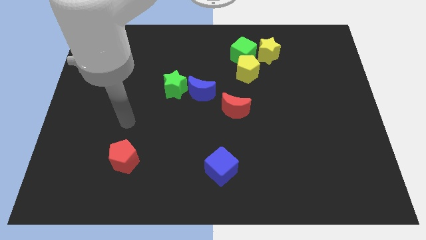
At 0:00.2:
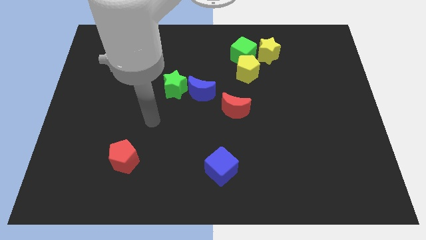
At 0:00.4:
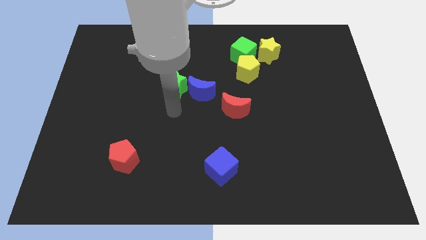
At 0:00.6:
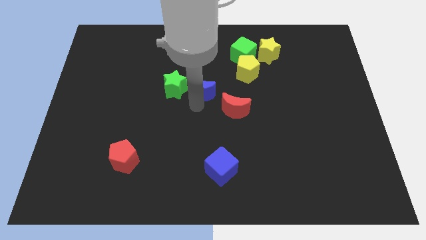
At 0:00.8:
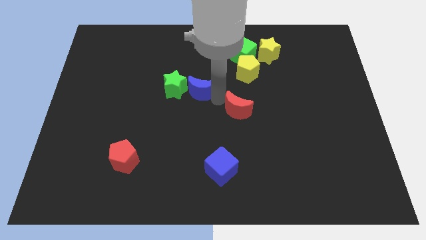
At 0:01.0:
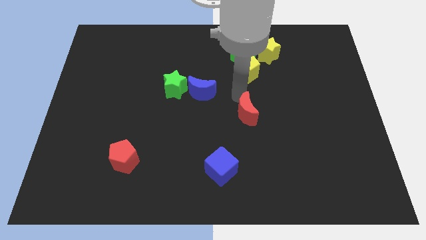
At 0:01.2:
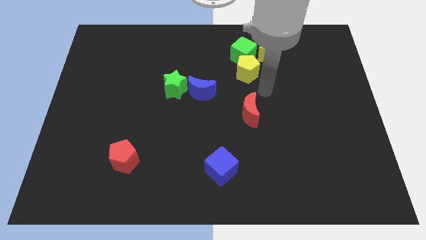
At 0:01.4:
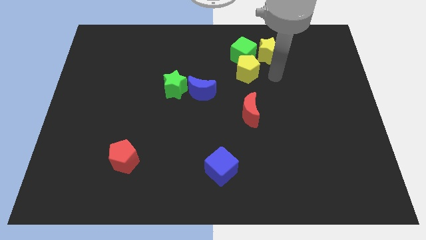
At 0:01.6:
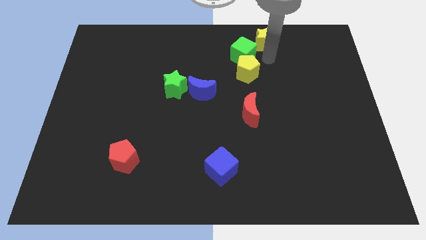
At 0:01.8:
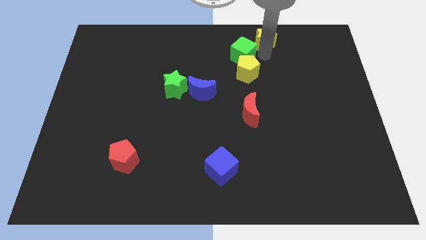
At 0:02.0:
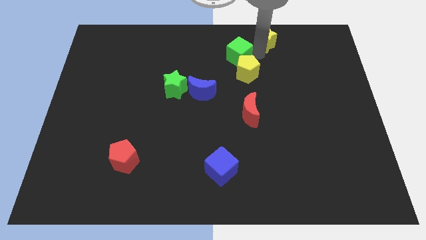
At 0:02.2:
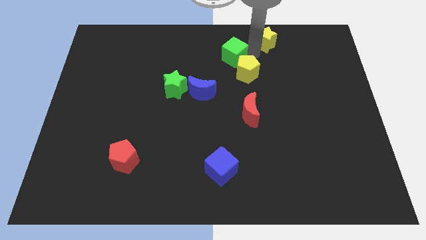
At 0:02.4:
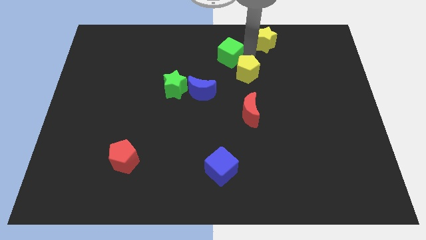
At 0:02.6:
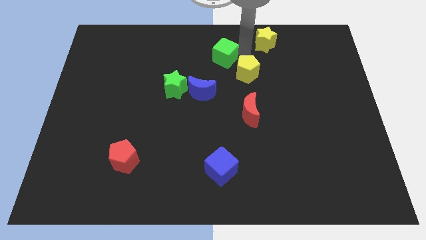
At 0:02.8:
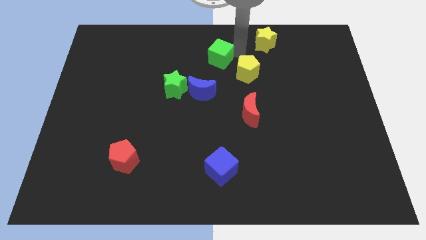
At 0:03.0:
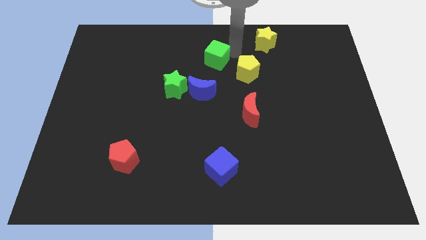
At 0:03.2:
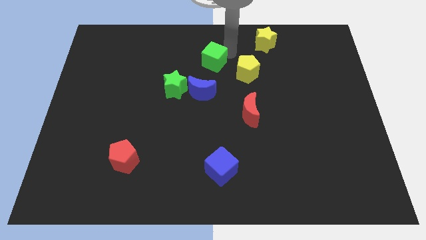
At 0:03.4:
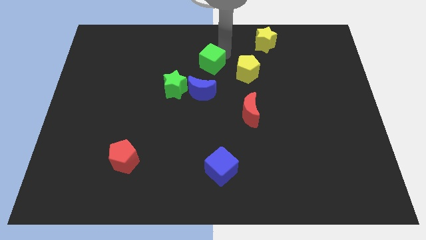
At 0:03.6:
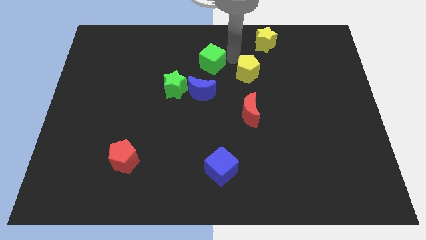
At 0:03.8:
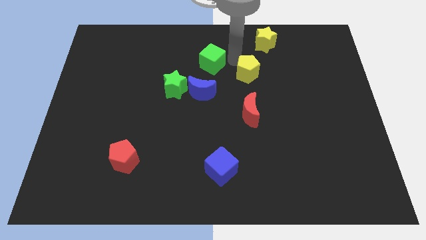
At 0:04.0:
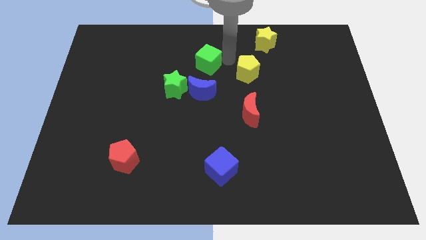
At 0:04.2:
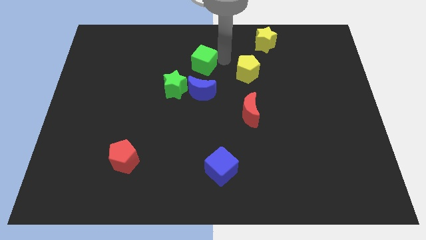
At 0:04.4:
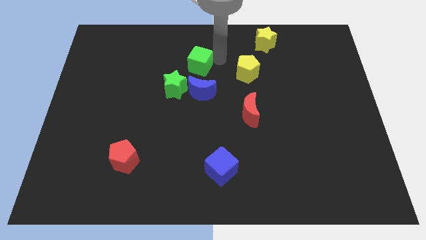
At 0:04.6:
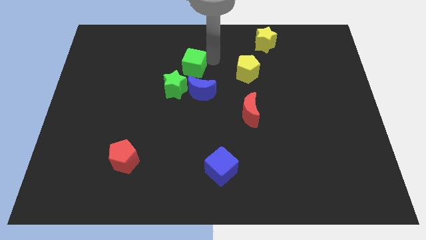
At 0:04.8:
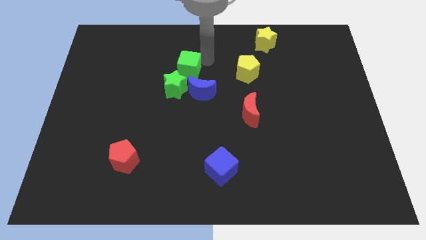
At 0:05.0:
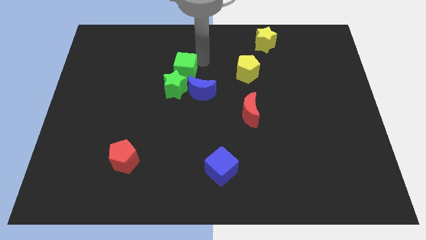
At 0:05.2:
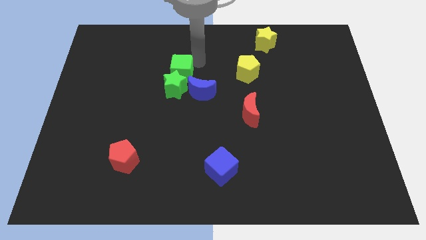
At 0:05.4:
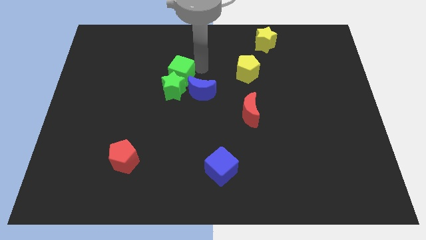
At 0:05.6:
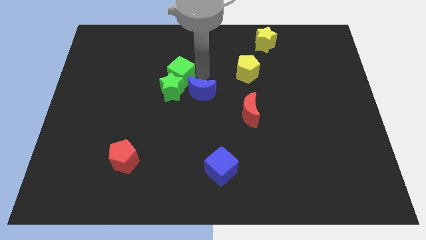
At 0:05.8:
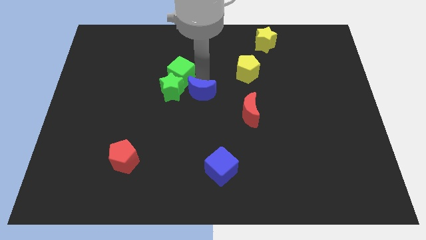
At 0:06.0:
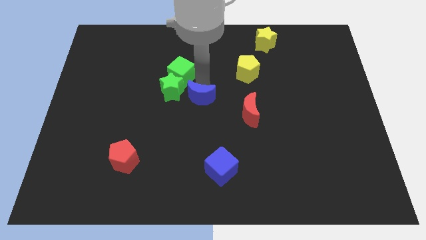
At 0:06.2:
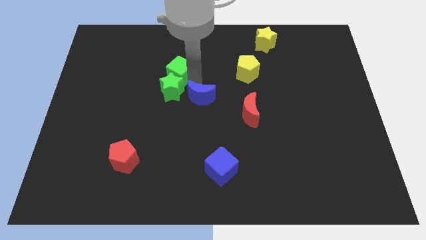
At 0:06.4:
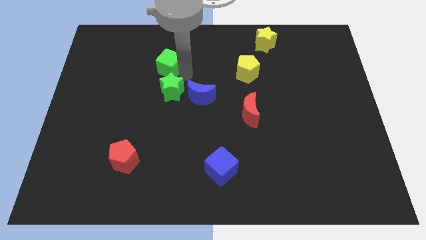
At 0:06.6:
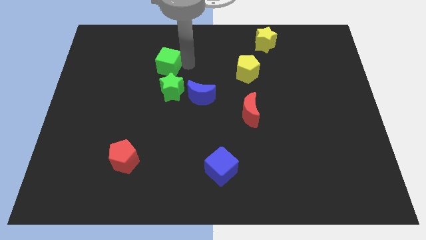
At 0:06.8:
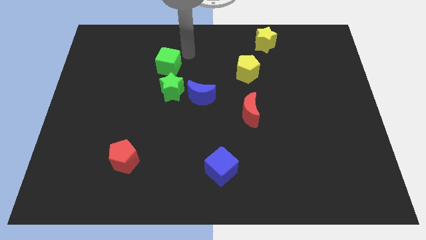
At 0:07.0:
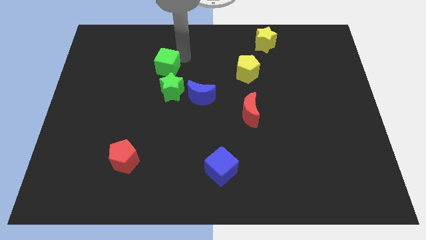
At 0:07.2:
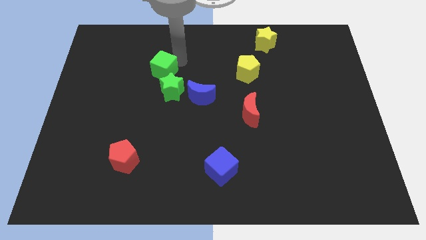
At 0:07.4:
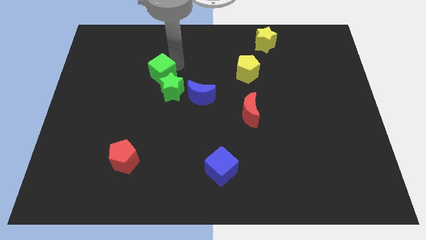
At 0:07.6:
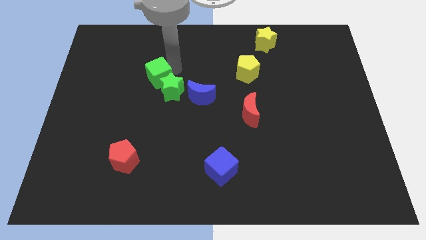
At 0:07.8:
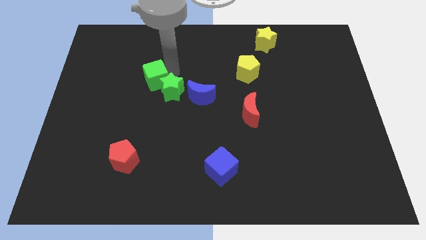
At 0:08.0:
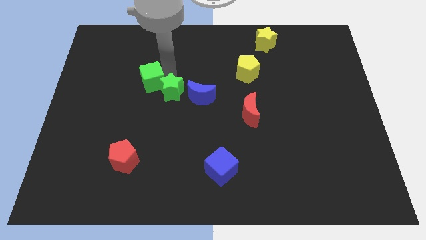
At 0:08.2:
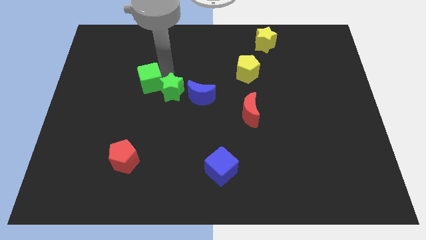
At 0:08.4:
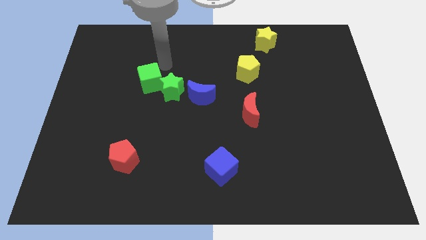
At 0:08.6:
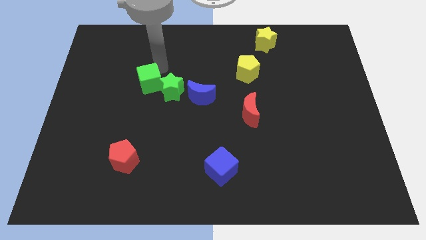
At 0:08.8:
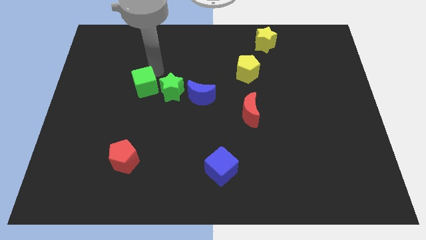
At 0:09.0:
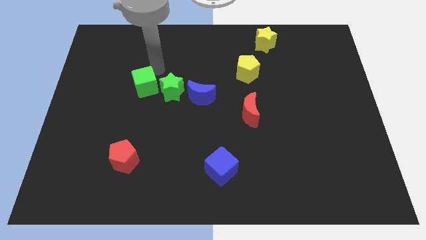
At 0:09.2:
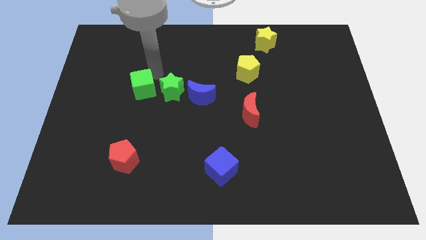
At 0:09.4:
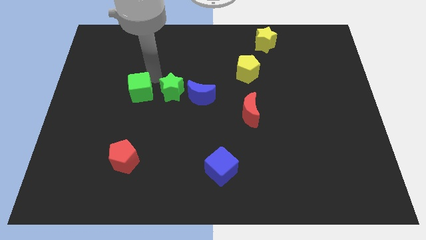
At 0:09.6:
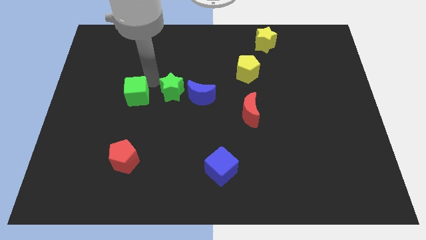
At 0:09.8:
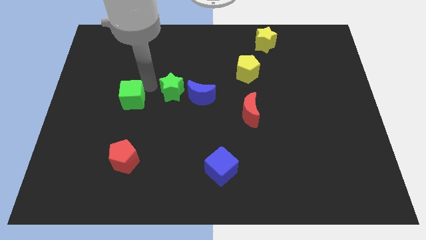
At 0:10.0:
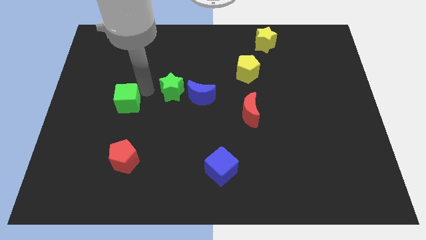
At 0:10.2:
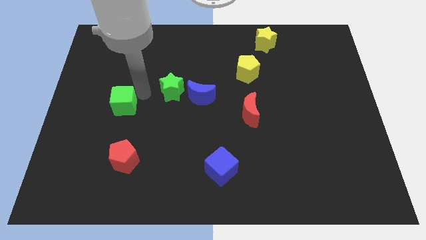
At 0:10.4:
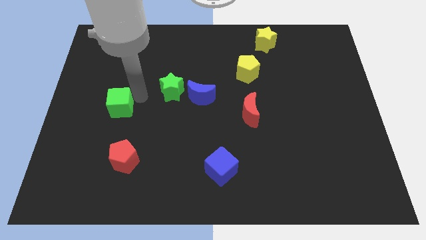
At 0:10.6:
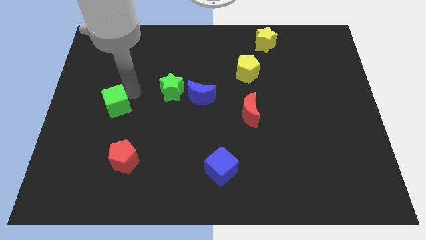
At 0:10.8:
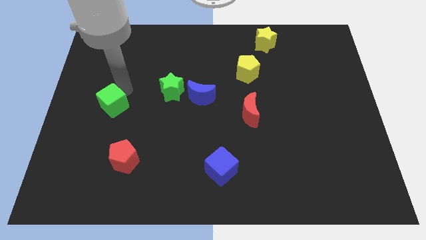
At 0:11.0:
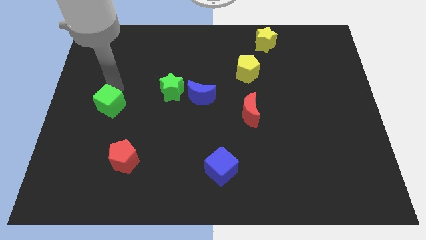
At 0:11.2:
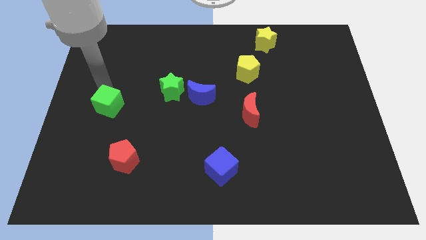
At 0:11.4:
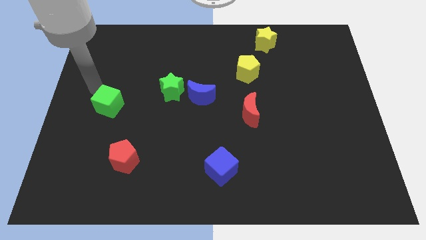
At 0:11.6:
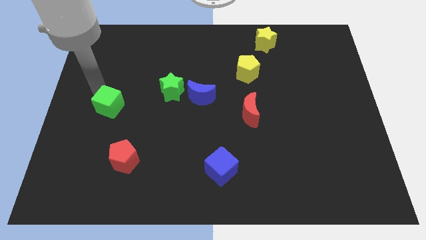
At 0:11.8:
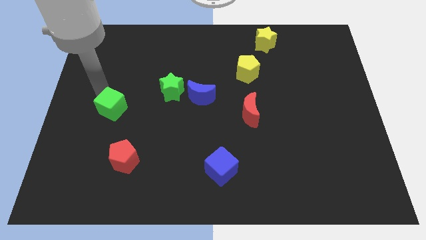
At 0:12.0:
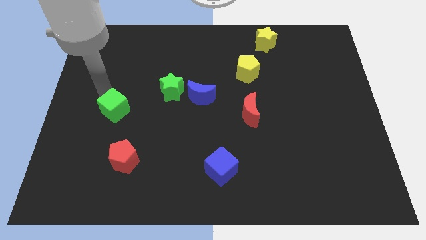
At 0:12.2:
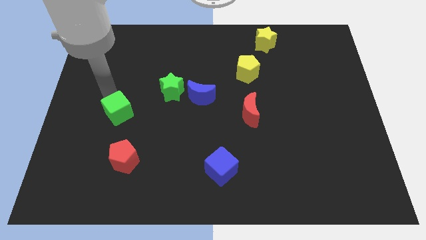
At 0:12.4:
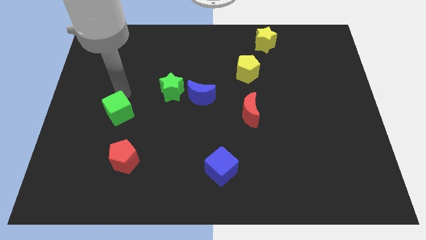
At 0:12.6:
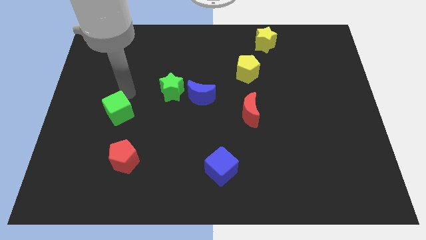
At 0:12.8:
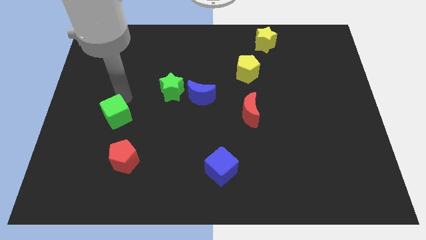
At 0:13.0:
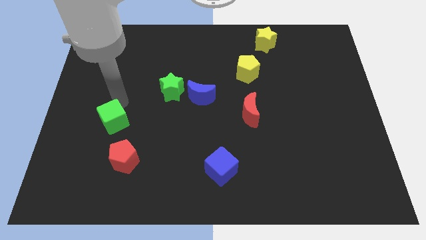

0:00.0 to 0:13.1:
move the green cube to the top left of the red pentagon
